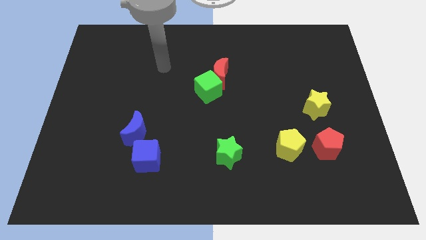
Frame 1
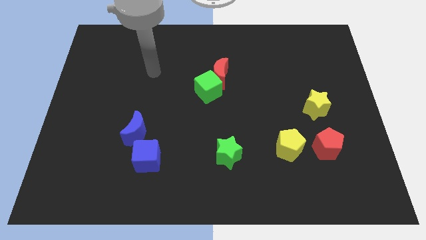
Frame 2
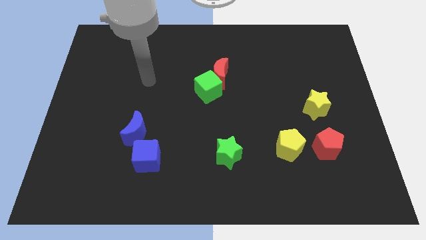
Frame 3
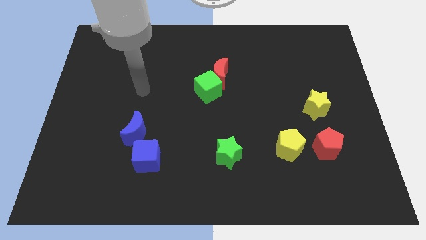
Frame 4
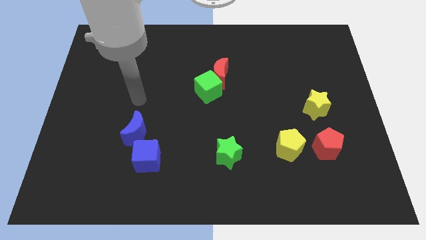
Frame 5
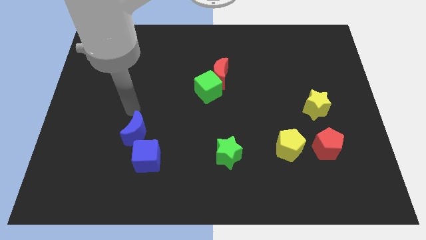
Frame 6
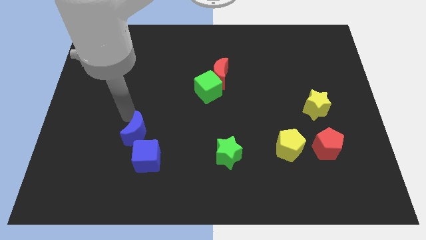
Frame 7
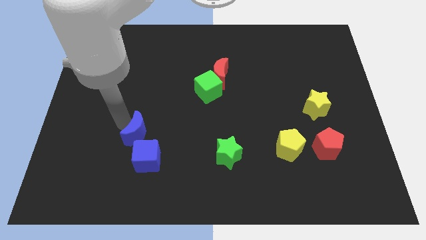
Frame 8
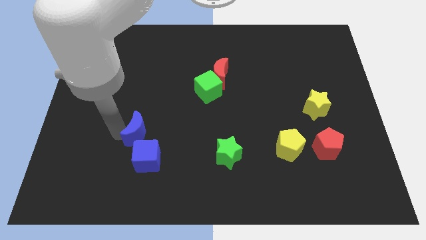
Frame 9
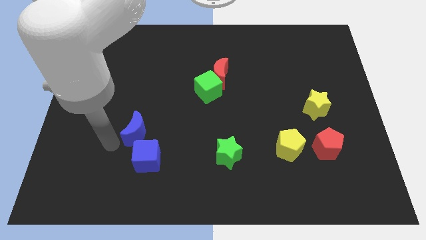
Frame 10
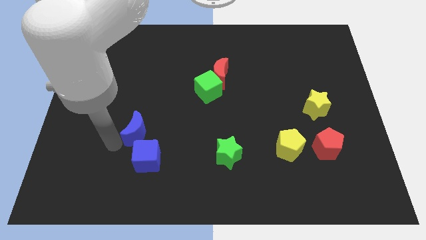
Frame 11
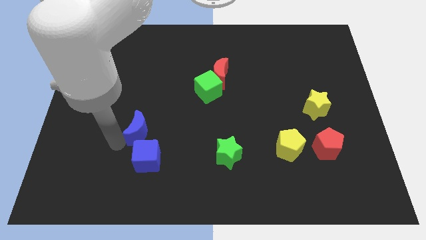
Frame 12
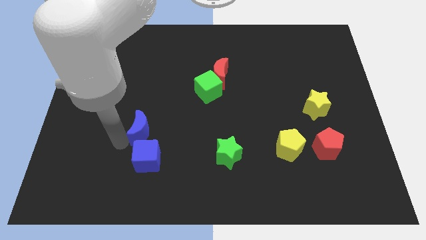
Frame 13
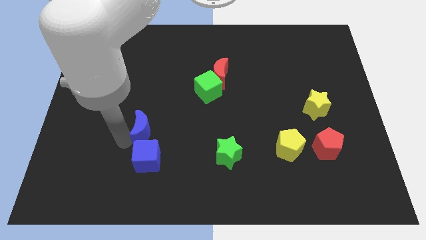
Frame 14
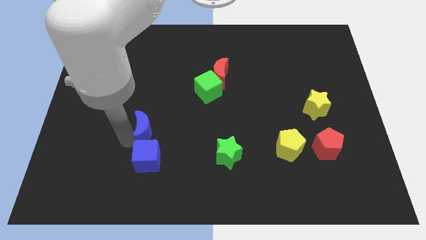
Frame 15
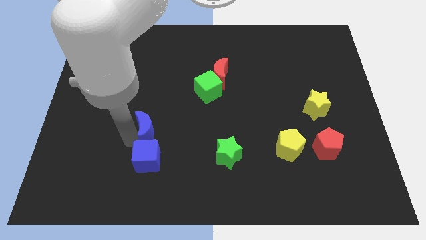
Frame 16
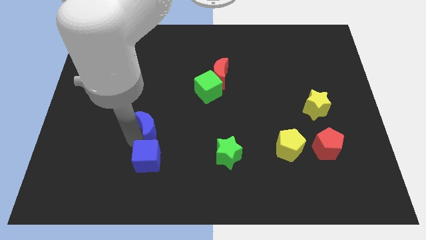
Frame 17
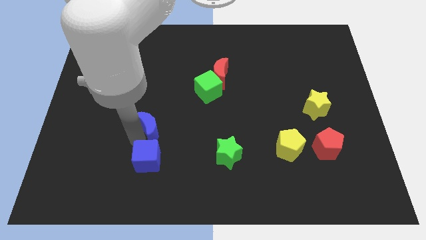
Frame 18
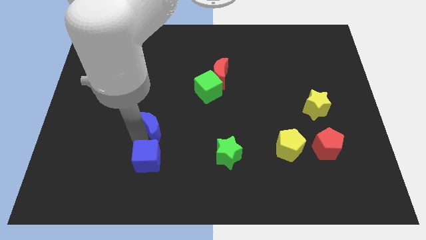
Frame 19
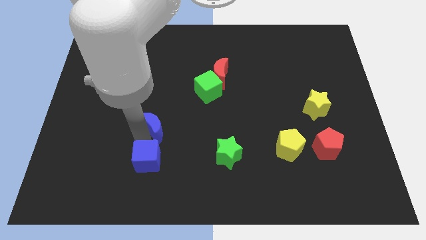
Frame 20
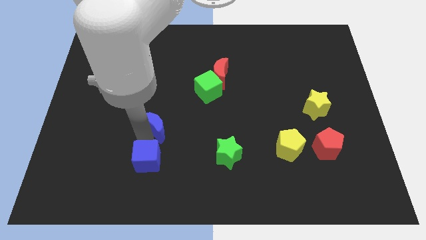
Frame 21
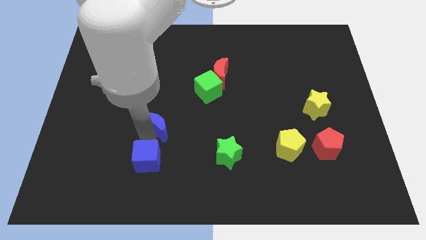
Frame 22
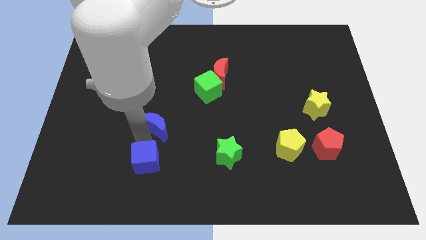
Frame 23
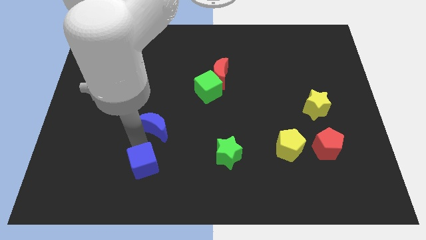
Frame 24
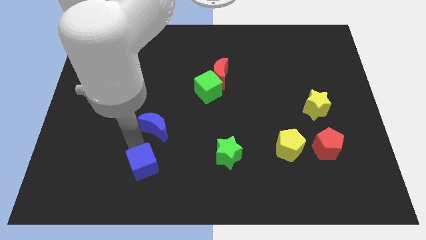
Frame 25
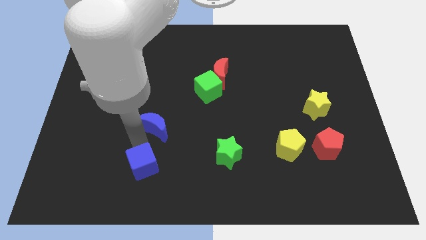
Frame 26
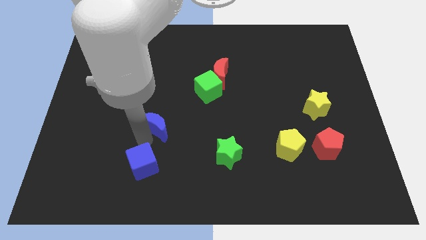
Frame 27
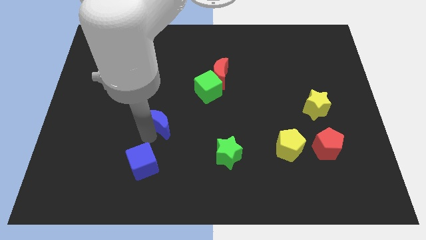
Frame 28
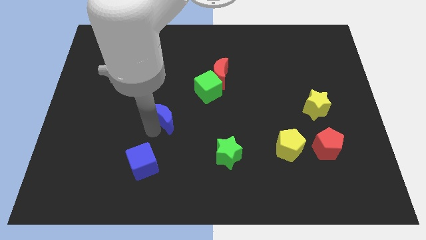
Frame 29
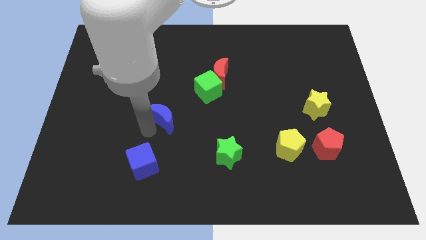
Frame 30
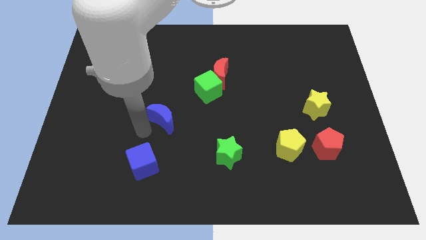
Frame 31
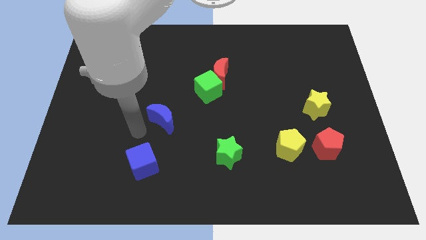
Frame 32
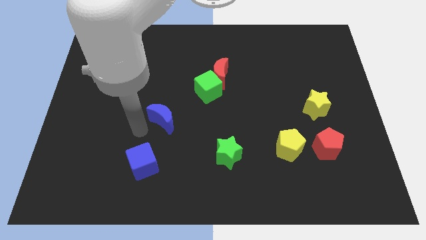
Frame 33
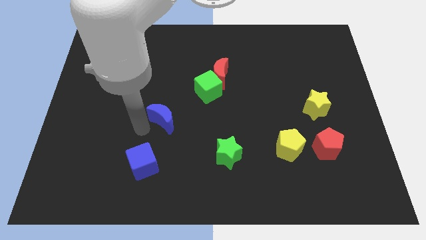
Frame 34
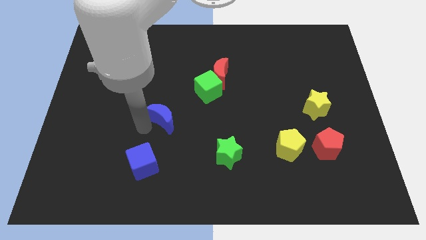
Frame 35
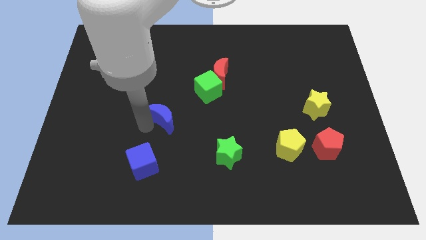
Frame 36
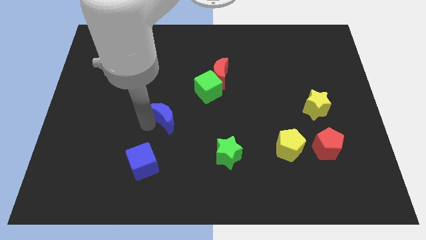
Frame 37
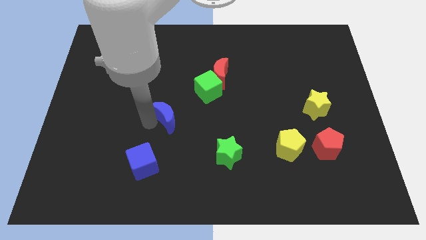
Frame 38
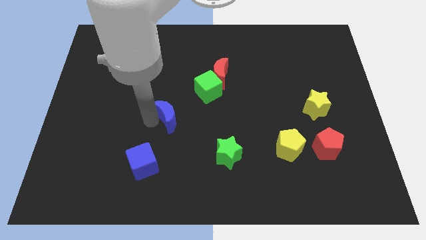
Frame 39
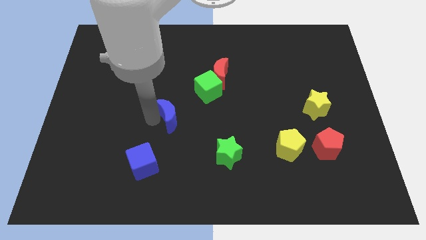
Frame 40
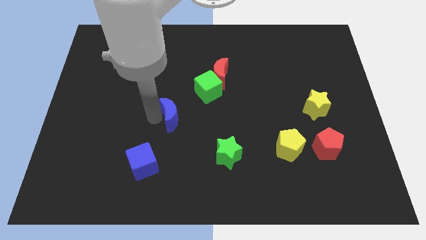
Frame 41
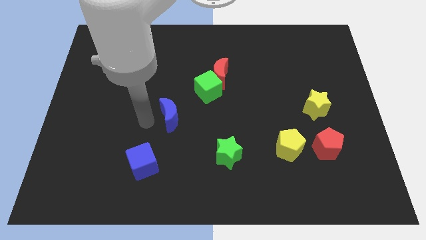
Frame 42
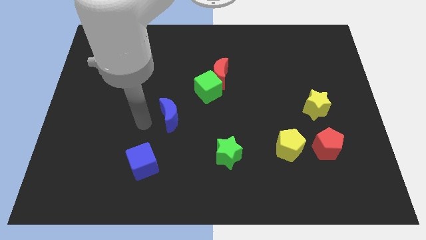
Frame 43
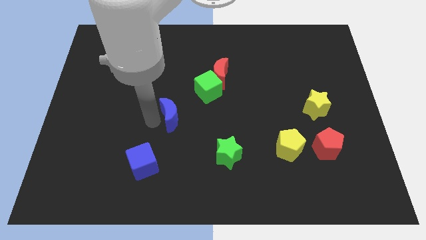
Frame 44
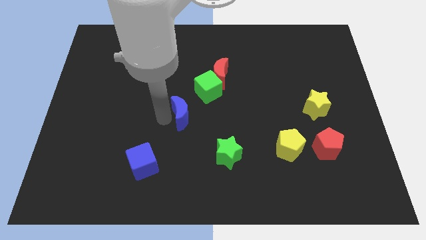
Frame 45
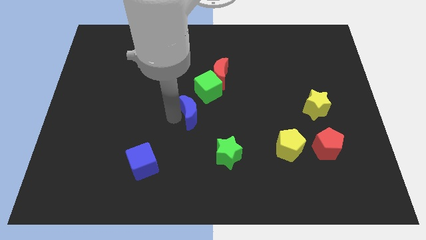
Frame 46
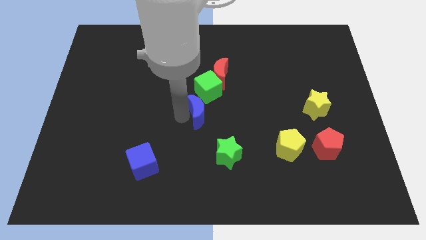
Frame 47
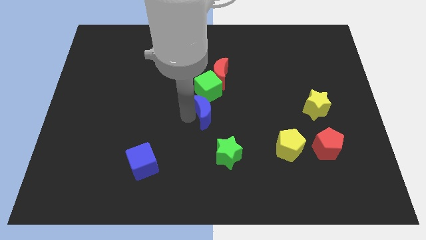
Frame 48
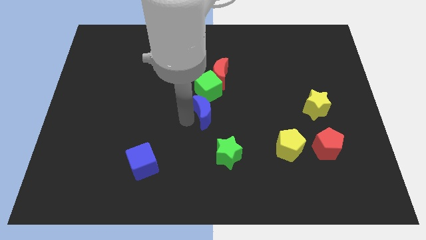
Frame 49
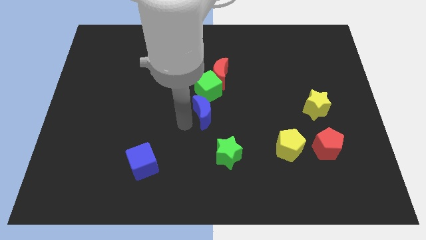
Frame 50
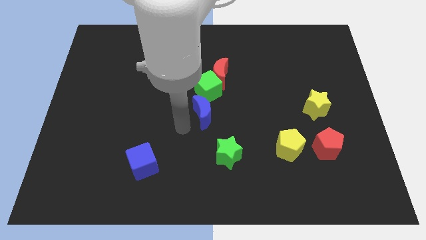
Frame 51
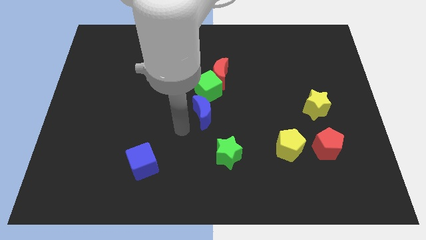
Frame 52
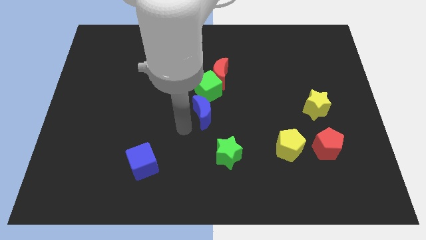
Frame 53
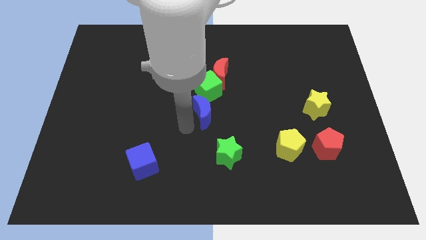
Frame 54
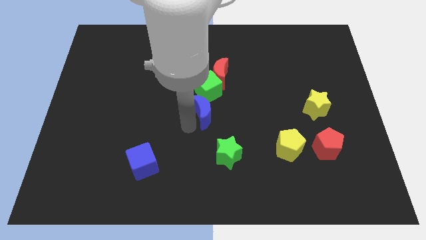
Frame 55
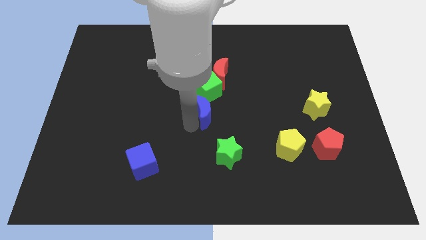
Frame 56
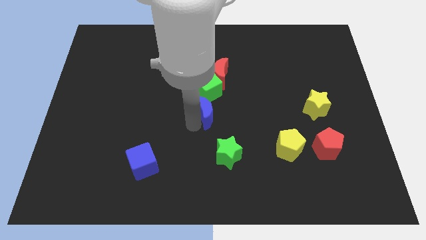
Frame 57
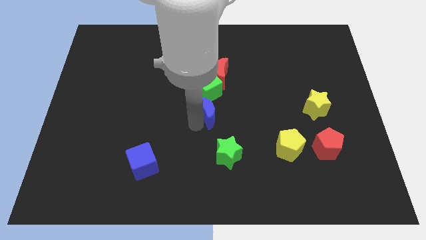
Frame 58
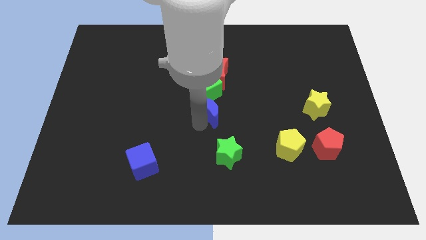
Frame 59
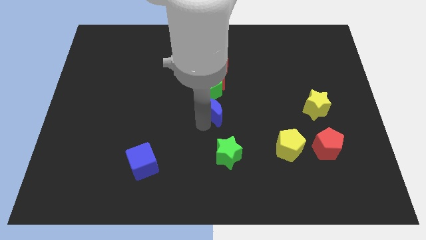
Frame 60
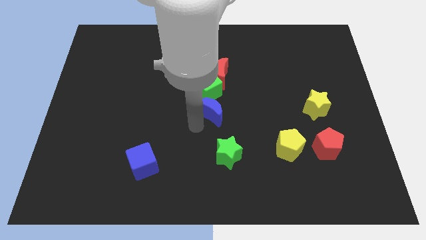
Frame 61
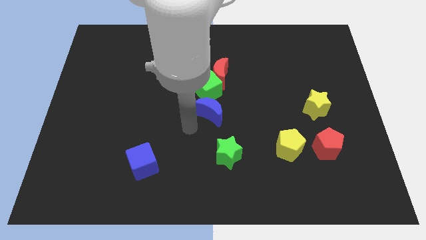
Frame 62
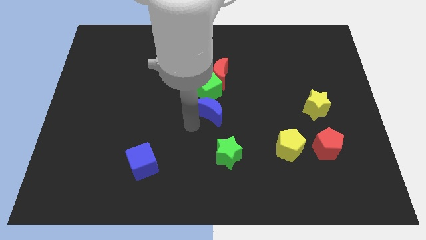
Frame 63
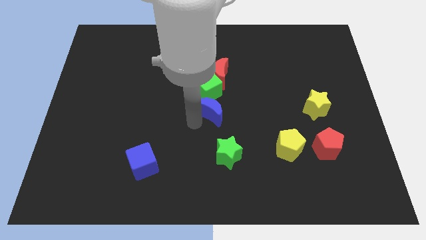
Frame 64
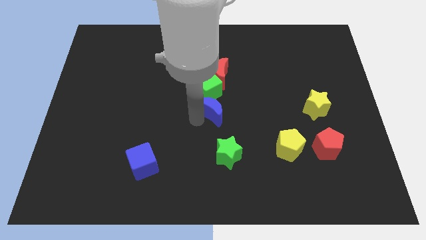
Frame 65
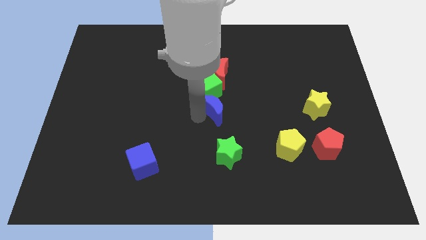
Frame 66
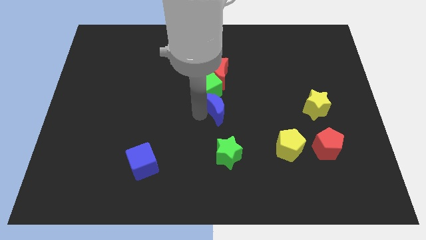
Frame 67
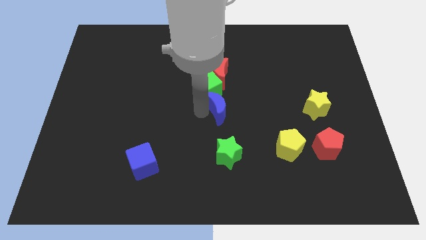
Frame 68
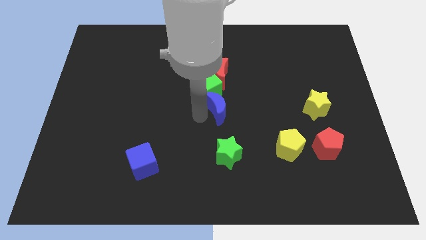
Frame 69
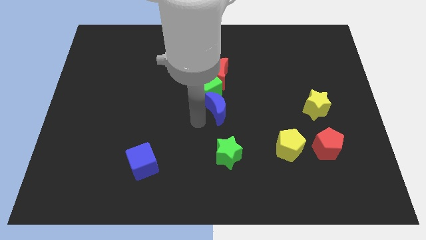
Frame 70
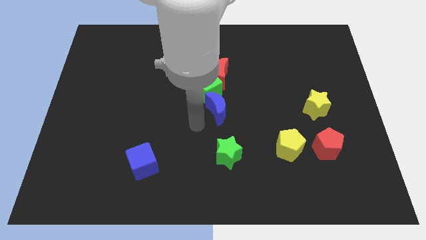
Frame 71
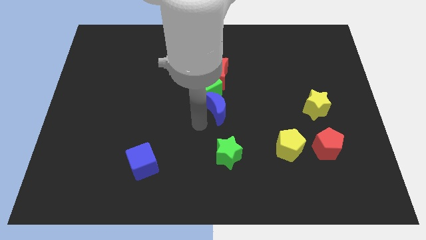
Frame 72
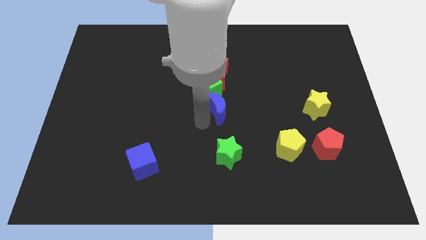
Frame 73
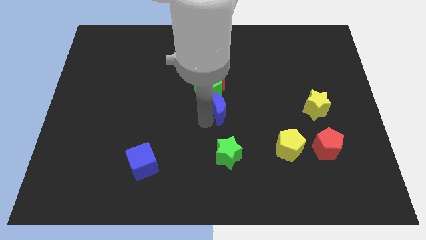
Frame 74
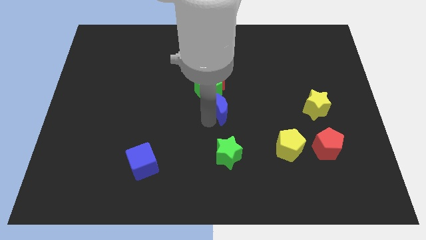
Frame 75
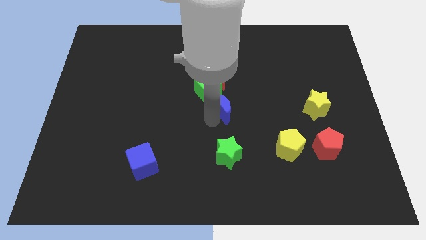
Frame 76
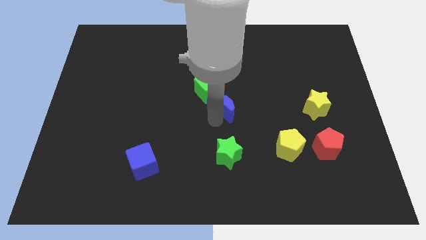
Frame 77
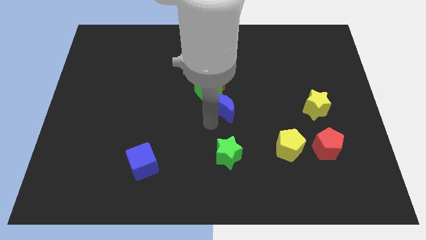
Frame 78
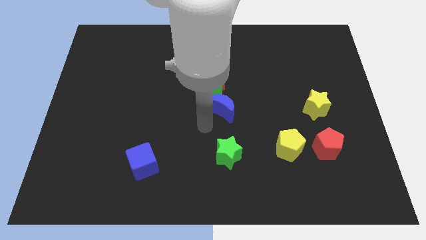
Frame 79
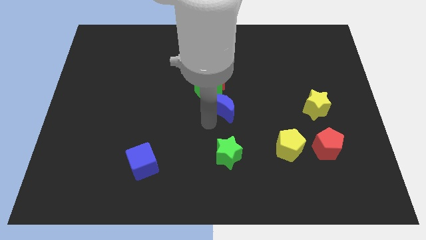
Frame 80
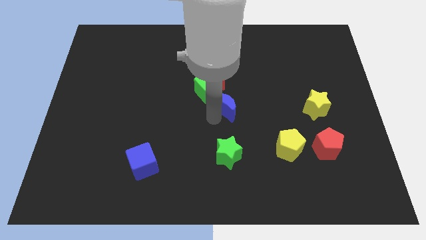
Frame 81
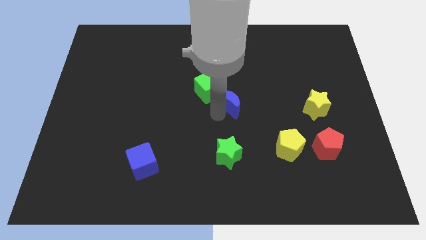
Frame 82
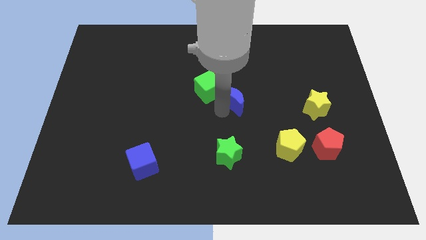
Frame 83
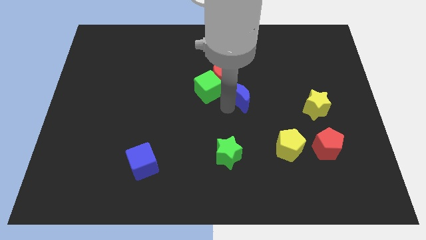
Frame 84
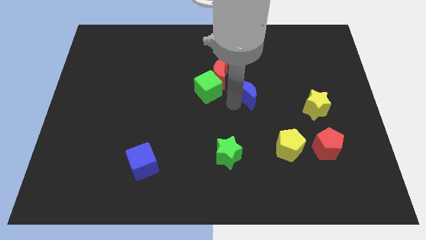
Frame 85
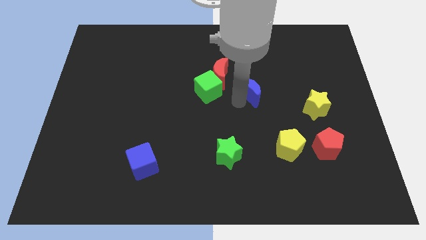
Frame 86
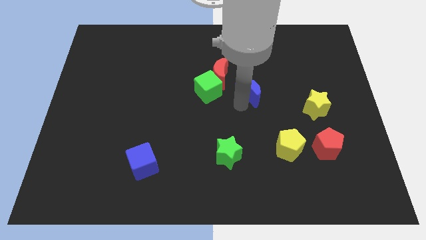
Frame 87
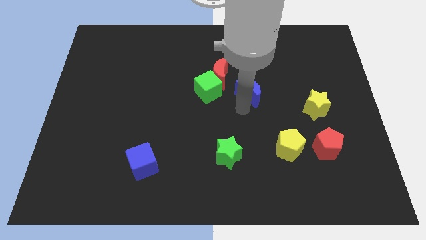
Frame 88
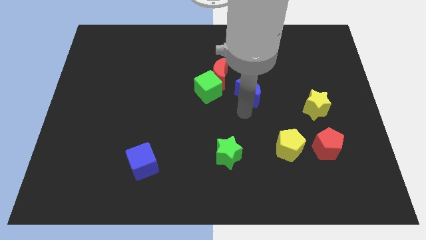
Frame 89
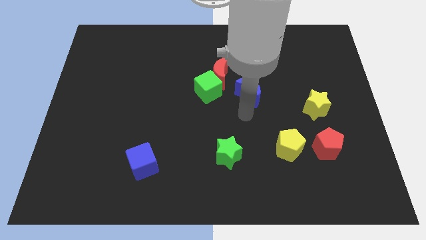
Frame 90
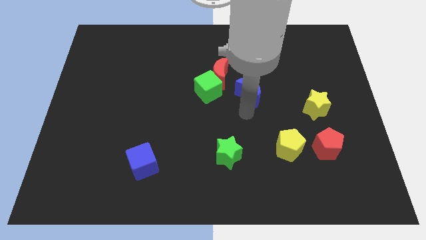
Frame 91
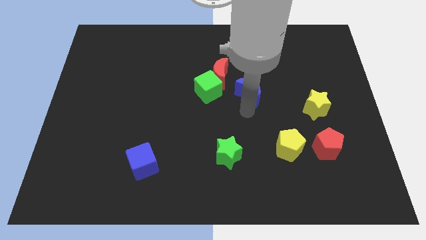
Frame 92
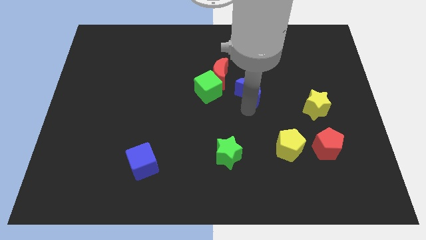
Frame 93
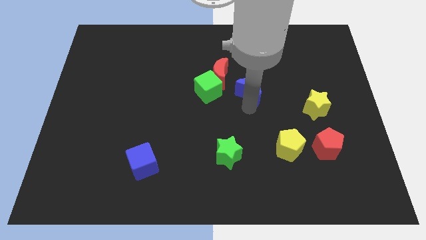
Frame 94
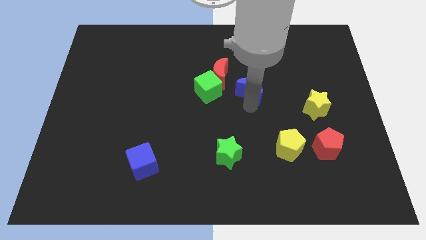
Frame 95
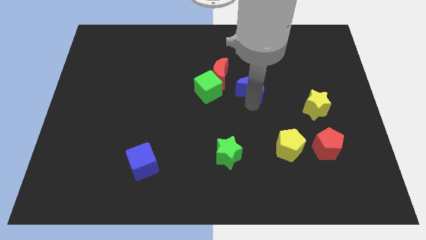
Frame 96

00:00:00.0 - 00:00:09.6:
push the blue moon to the right of the red moon
